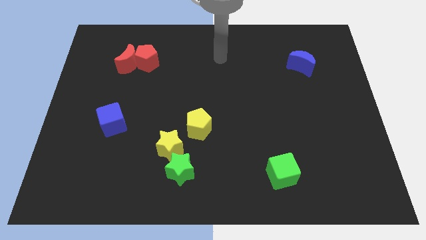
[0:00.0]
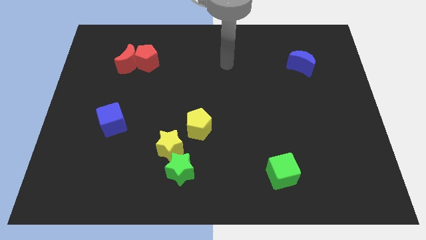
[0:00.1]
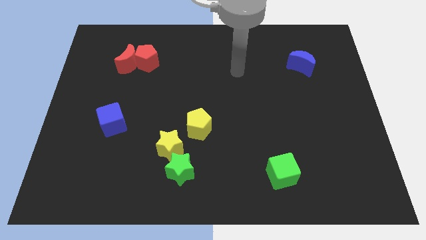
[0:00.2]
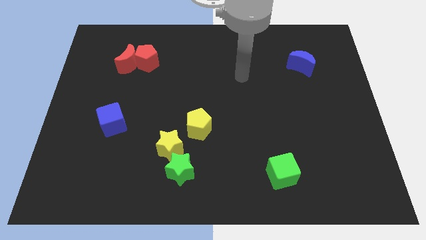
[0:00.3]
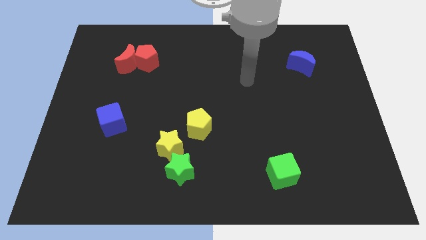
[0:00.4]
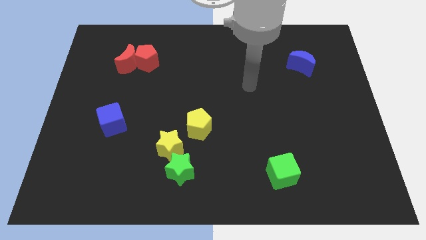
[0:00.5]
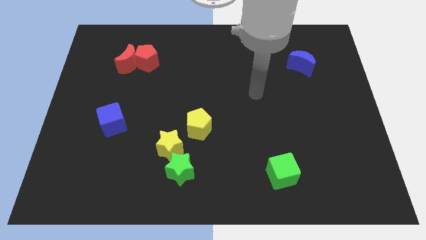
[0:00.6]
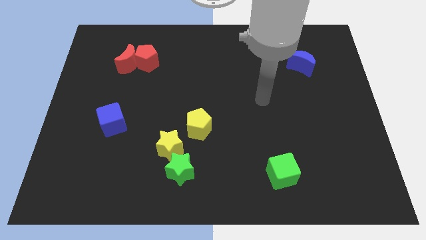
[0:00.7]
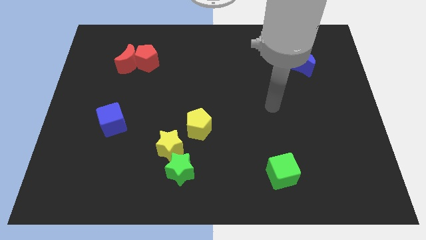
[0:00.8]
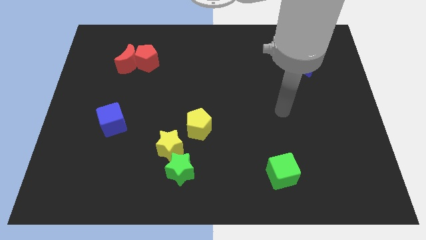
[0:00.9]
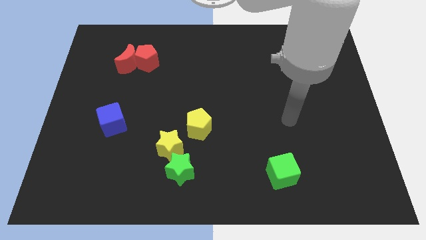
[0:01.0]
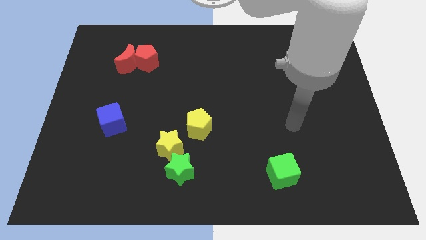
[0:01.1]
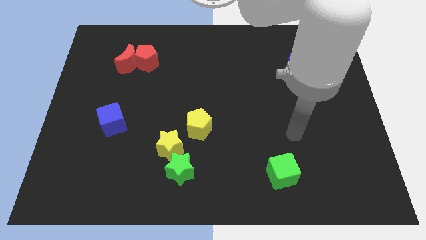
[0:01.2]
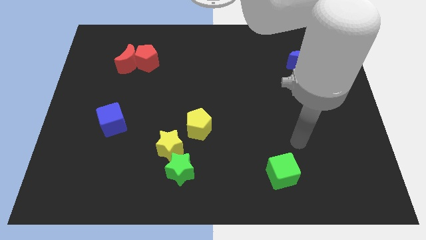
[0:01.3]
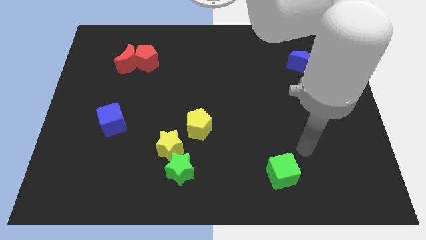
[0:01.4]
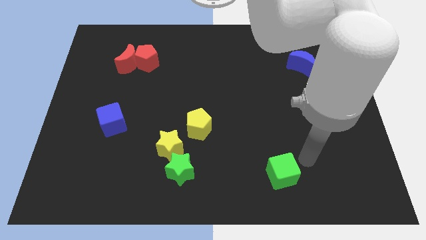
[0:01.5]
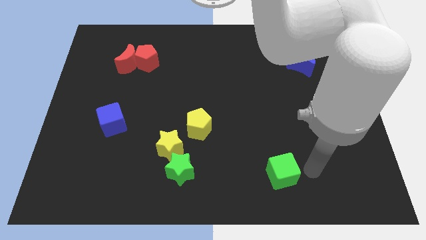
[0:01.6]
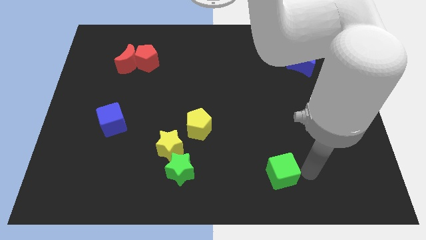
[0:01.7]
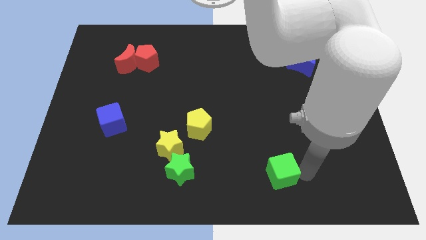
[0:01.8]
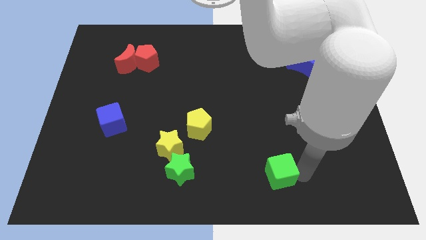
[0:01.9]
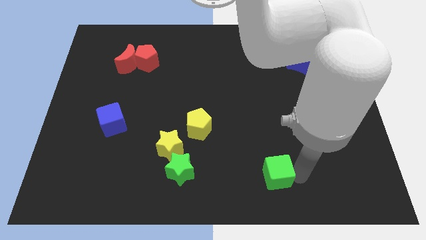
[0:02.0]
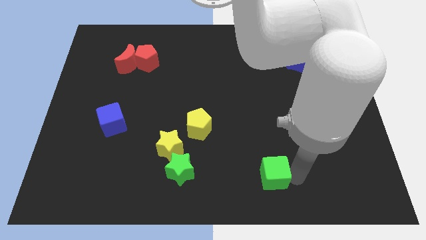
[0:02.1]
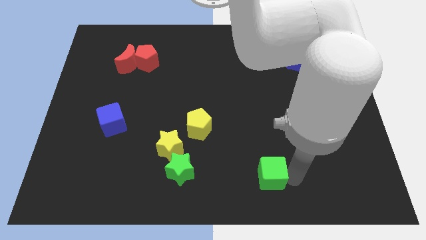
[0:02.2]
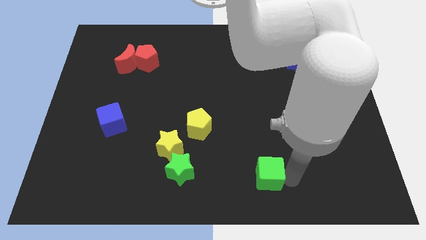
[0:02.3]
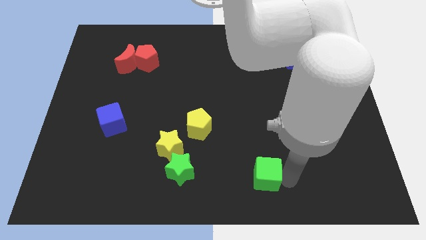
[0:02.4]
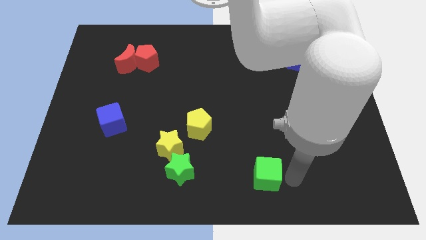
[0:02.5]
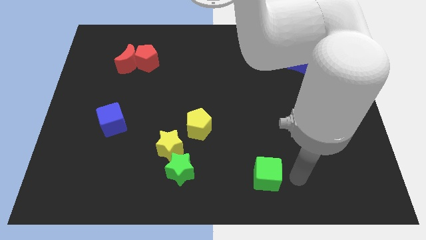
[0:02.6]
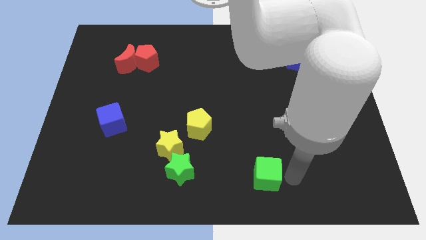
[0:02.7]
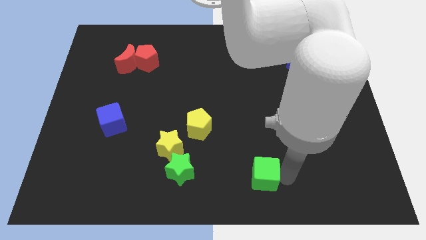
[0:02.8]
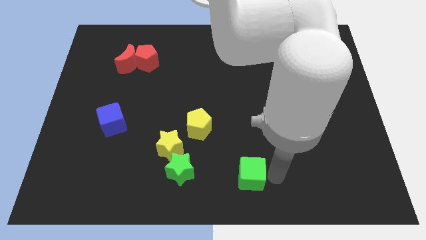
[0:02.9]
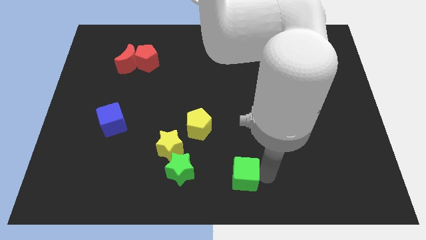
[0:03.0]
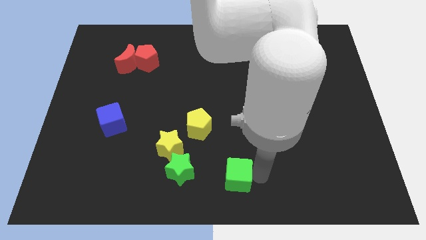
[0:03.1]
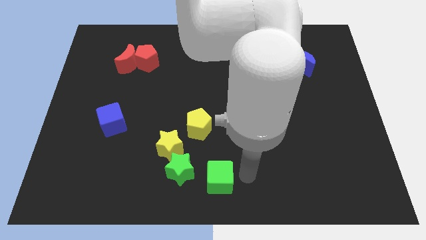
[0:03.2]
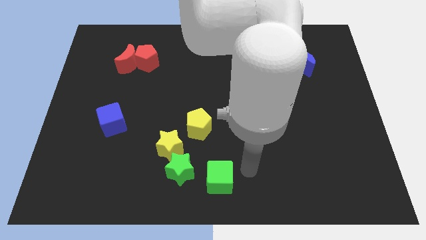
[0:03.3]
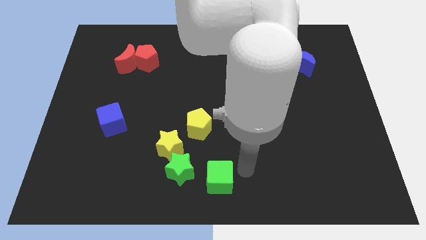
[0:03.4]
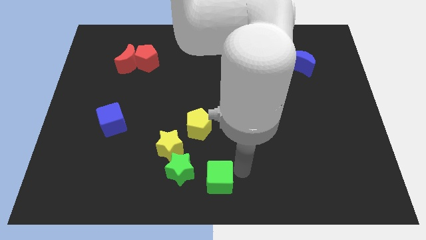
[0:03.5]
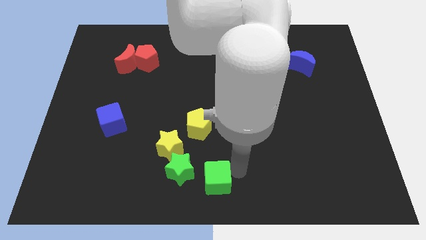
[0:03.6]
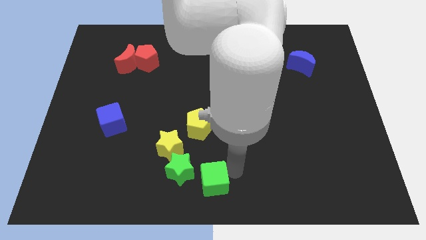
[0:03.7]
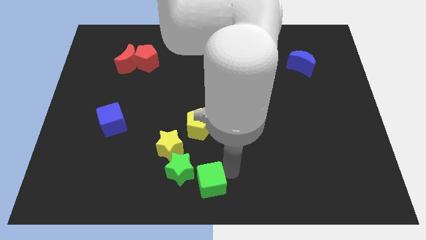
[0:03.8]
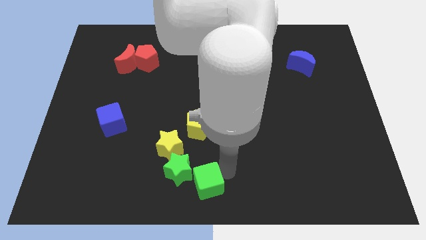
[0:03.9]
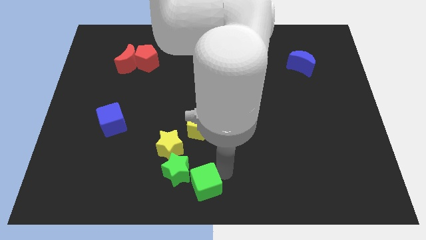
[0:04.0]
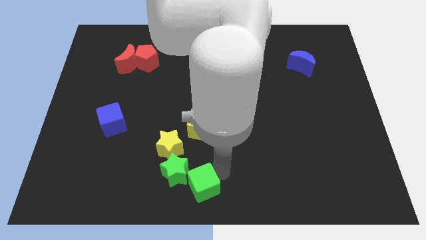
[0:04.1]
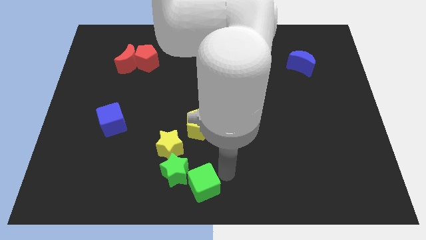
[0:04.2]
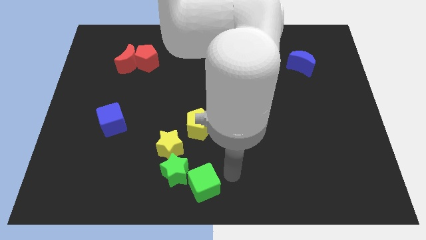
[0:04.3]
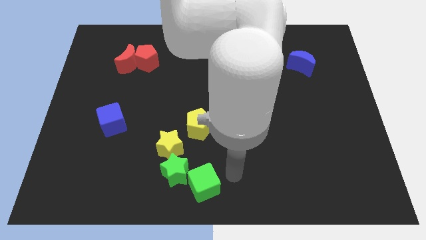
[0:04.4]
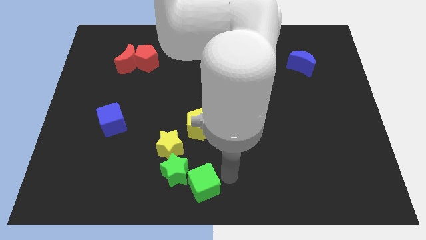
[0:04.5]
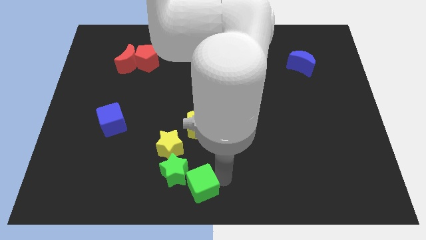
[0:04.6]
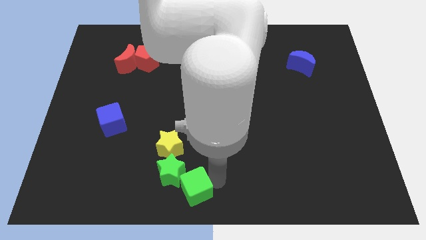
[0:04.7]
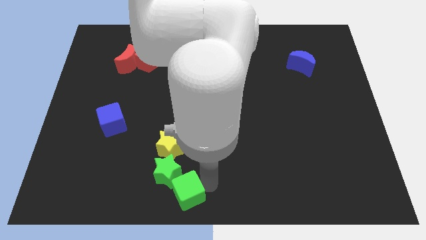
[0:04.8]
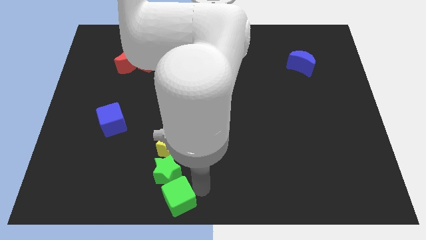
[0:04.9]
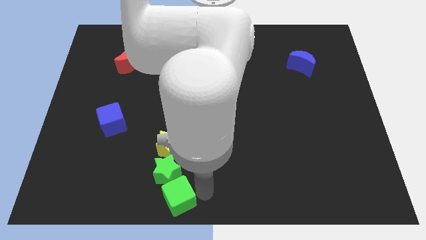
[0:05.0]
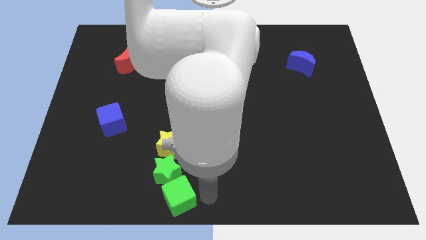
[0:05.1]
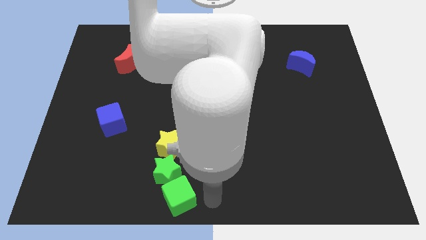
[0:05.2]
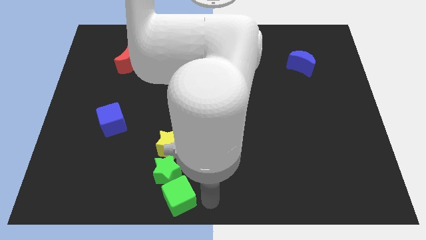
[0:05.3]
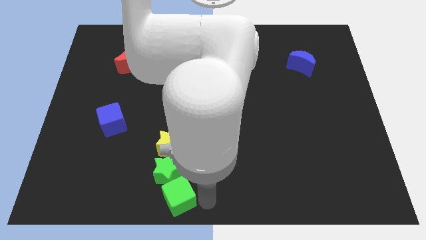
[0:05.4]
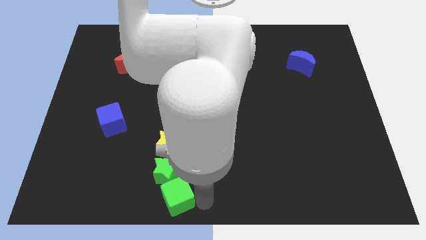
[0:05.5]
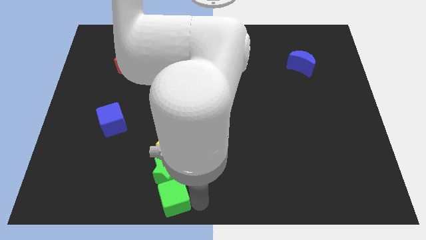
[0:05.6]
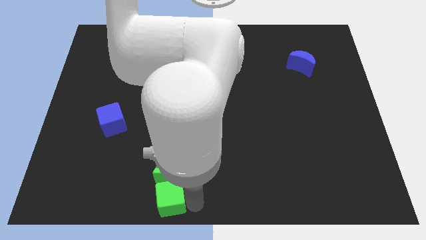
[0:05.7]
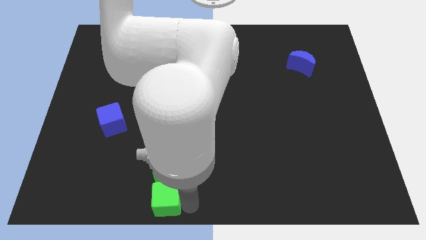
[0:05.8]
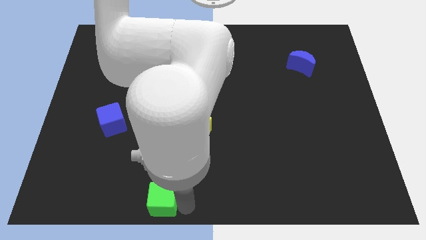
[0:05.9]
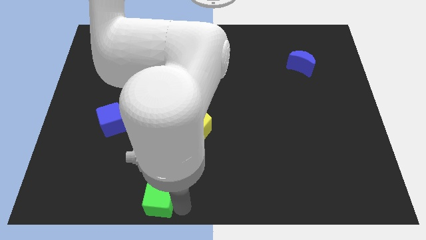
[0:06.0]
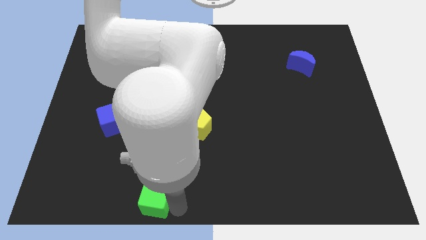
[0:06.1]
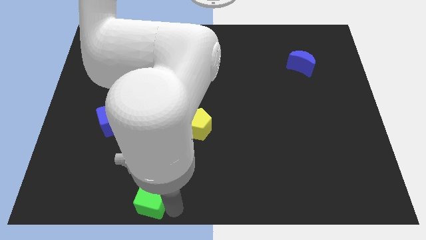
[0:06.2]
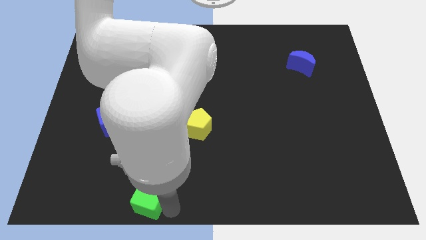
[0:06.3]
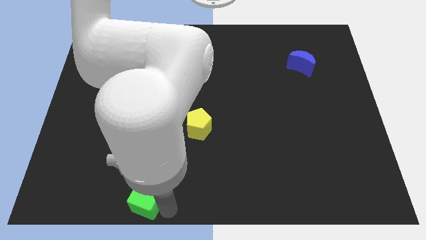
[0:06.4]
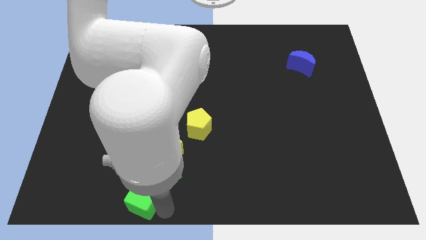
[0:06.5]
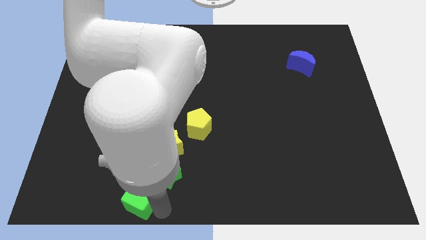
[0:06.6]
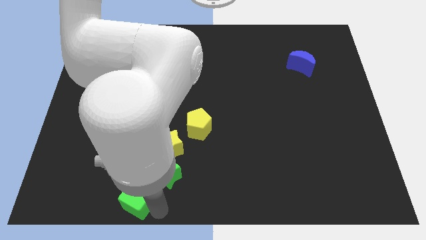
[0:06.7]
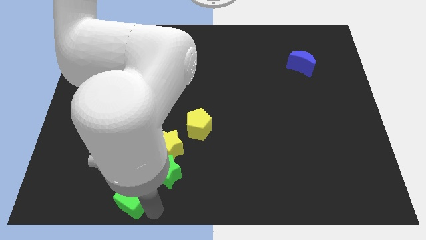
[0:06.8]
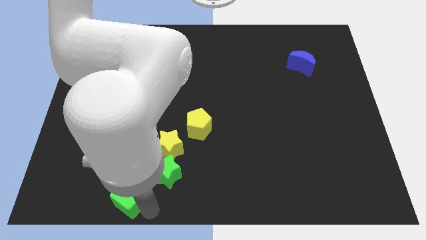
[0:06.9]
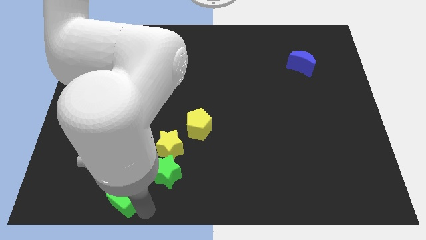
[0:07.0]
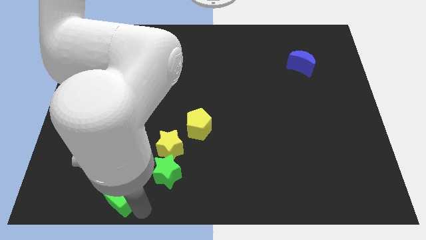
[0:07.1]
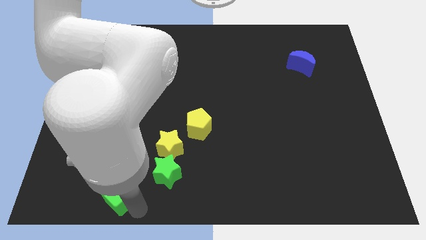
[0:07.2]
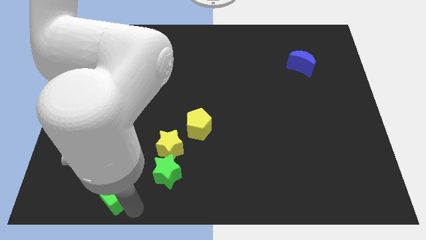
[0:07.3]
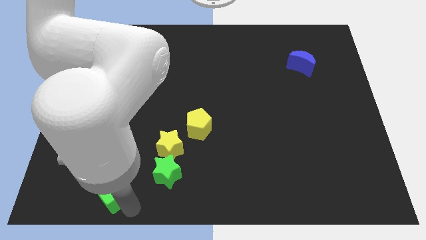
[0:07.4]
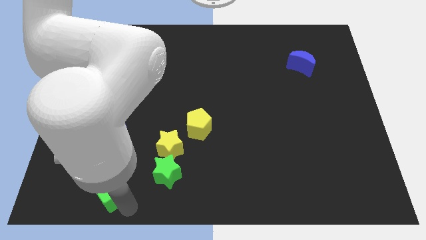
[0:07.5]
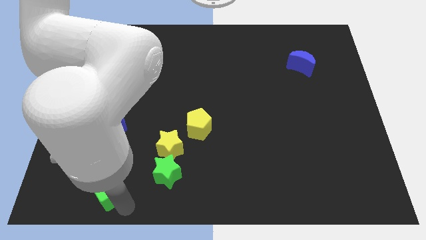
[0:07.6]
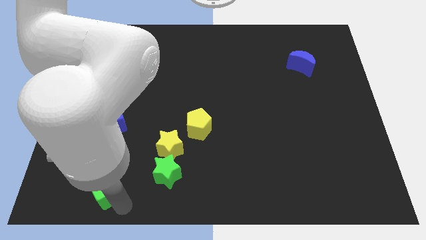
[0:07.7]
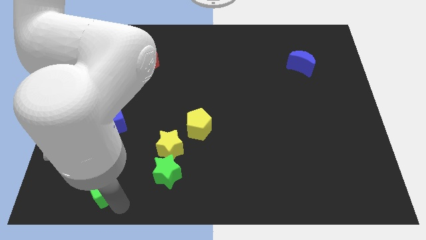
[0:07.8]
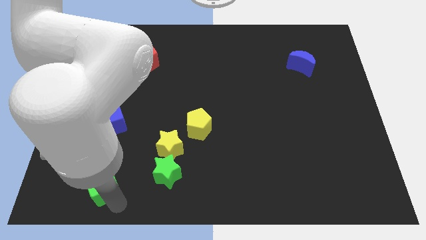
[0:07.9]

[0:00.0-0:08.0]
move the green cube below the blue cube
